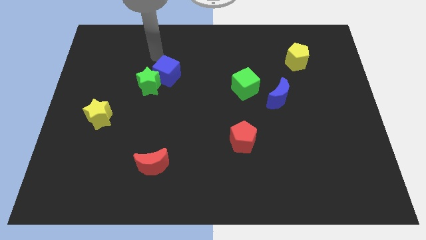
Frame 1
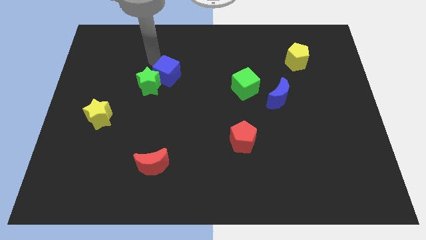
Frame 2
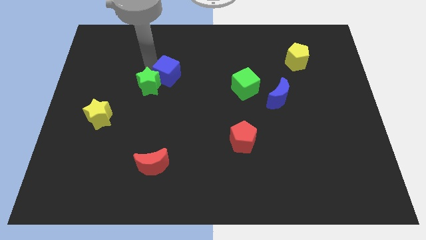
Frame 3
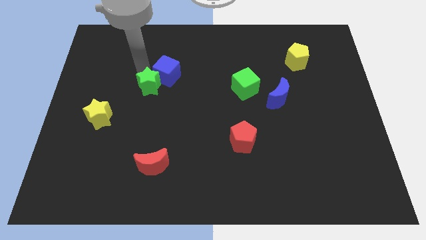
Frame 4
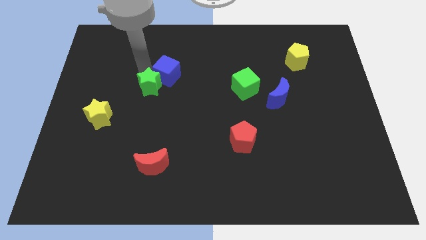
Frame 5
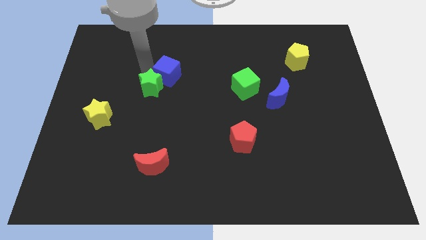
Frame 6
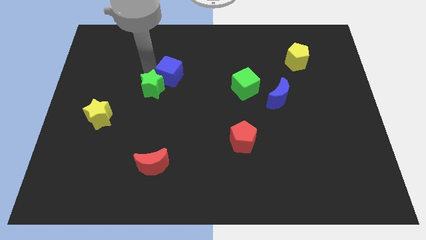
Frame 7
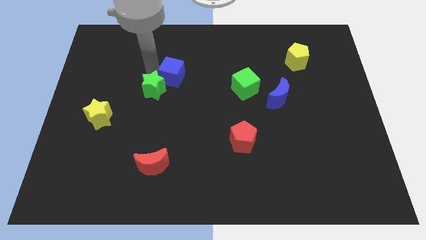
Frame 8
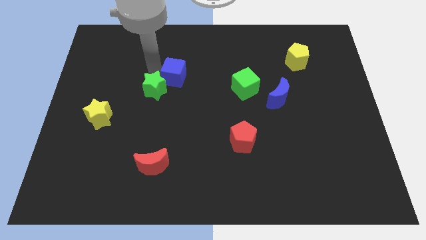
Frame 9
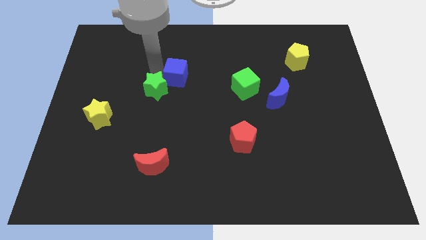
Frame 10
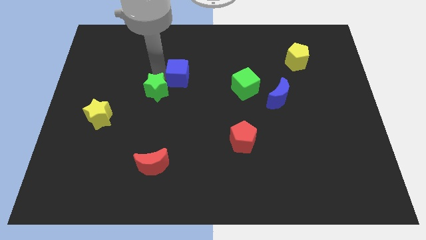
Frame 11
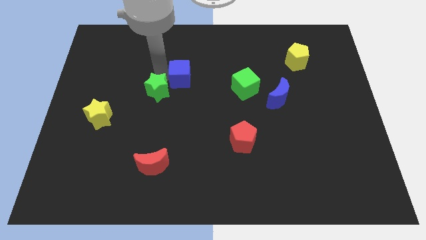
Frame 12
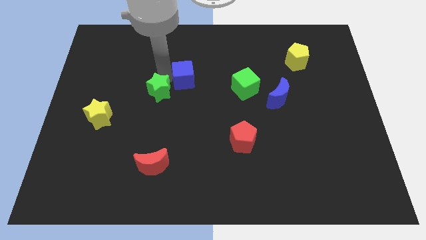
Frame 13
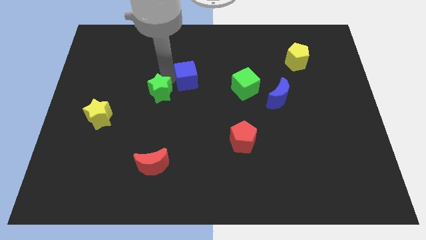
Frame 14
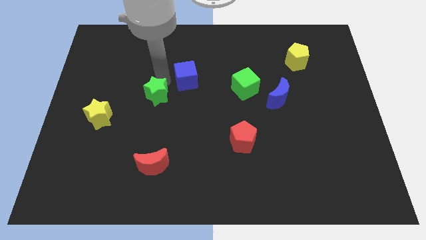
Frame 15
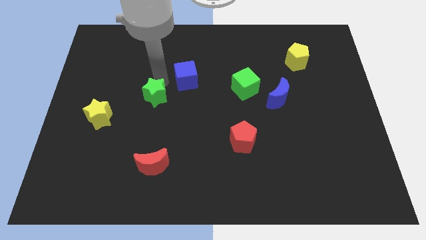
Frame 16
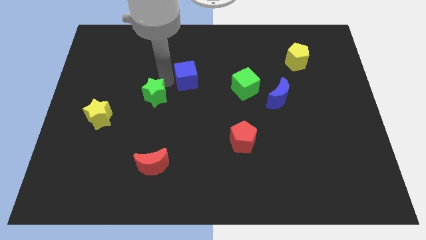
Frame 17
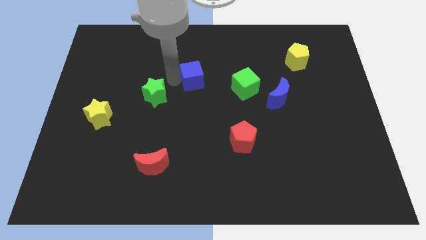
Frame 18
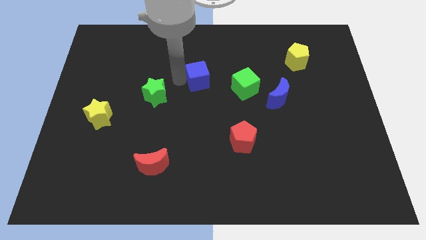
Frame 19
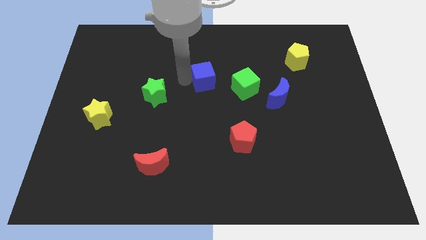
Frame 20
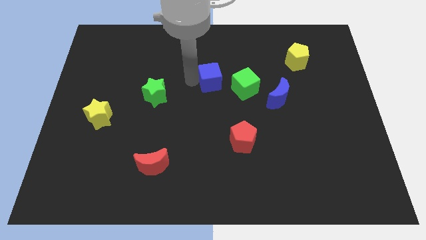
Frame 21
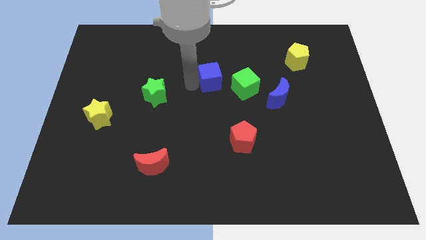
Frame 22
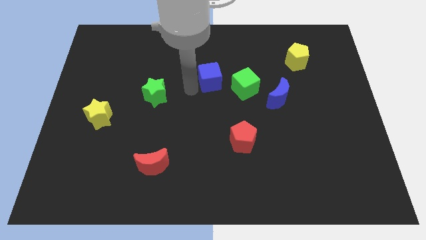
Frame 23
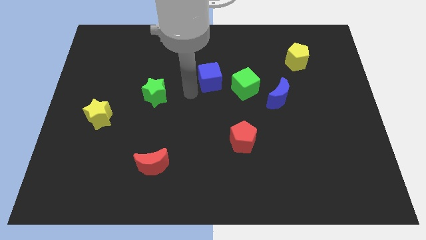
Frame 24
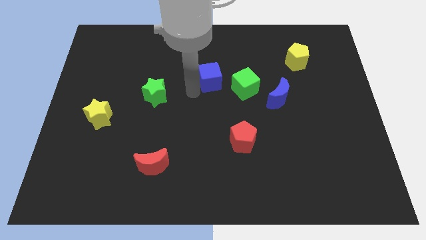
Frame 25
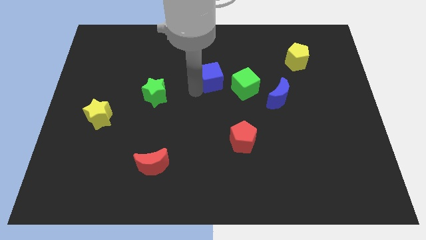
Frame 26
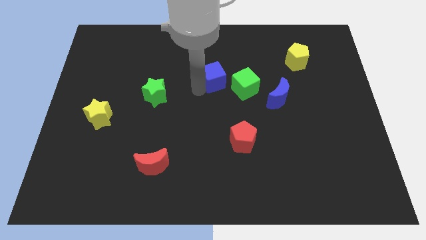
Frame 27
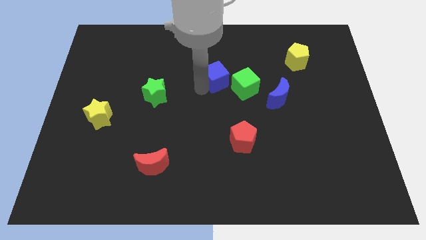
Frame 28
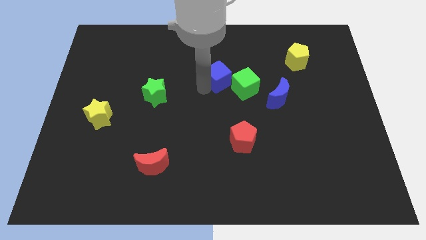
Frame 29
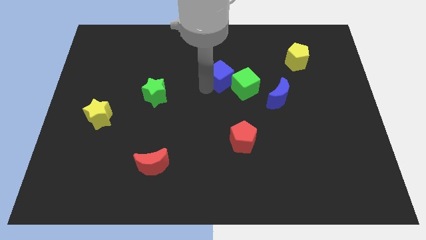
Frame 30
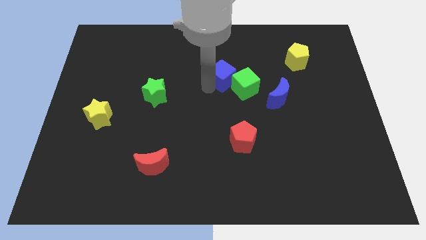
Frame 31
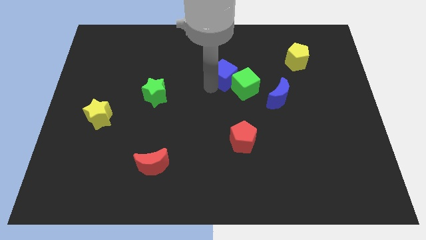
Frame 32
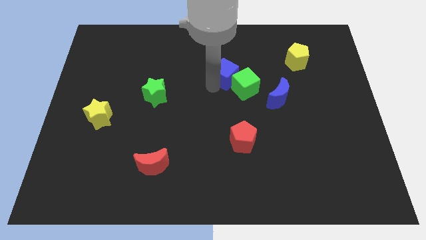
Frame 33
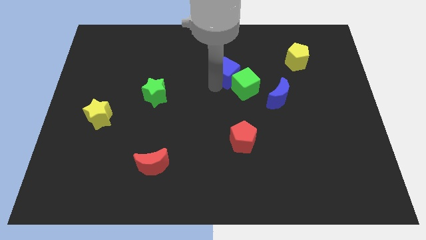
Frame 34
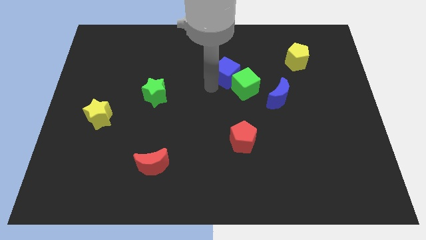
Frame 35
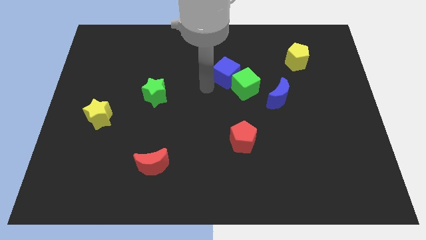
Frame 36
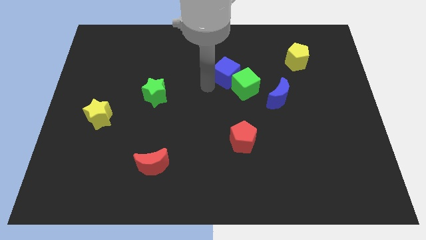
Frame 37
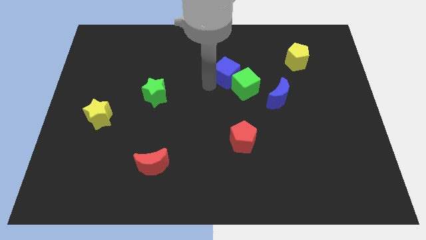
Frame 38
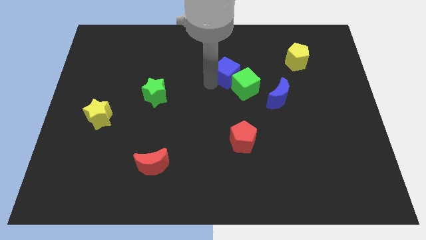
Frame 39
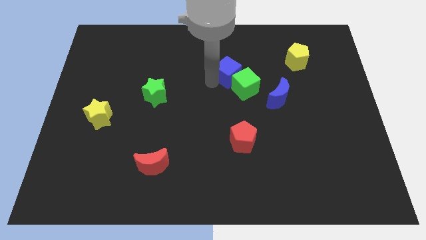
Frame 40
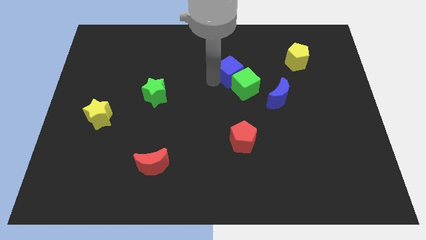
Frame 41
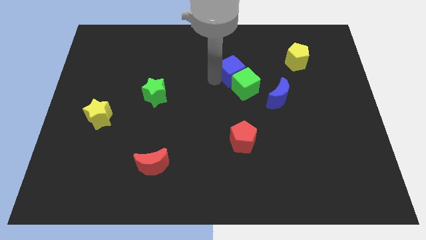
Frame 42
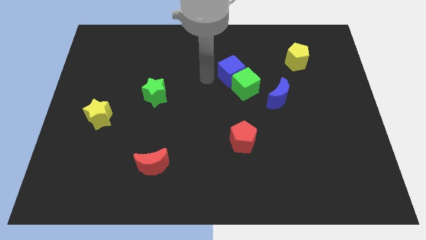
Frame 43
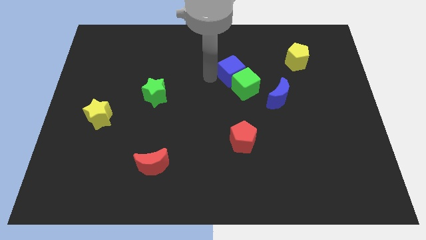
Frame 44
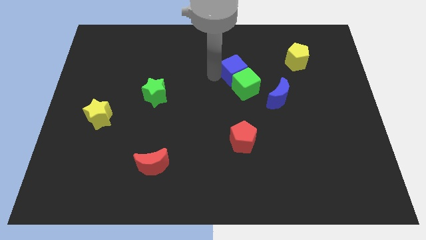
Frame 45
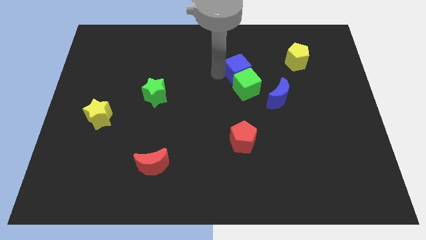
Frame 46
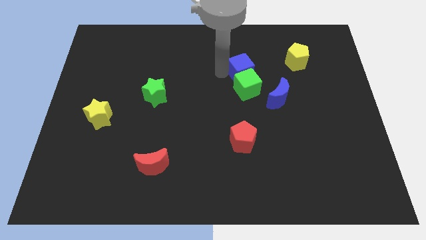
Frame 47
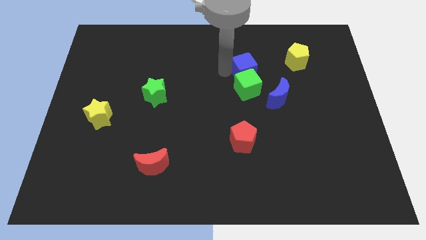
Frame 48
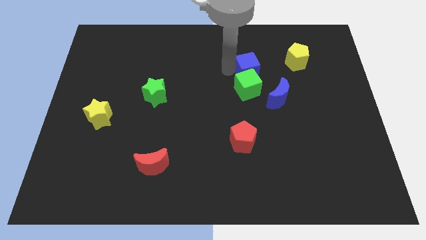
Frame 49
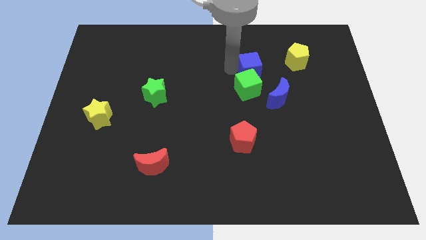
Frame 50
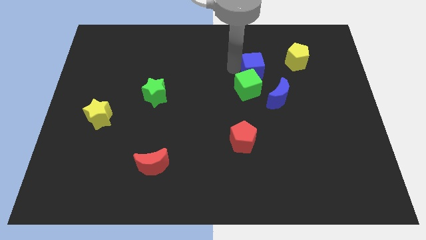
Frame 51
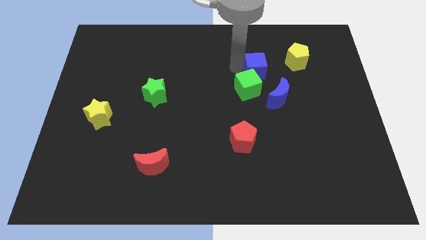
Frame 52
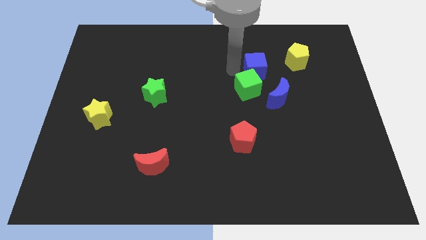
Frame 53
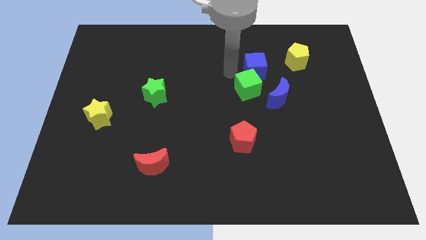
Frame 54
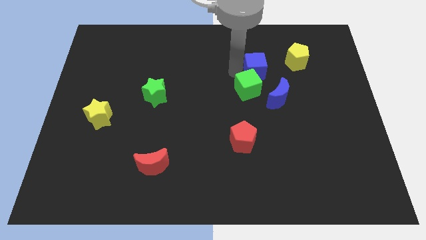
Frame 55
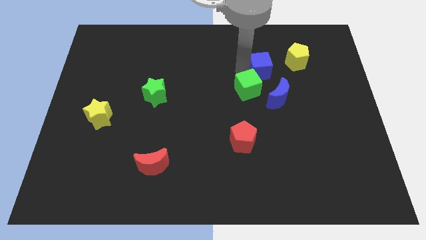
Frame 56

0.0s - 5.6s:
put the blue cube to the top of the blue moon

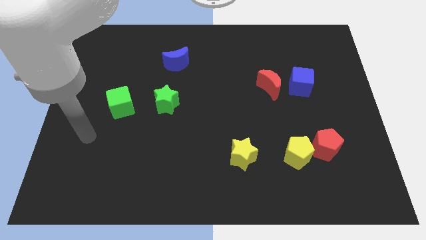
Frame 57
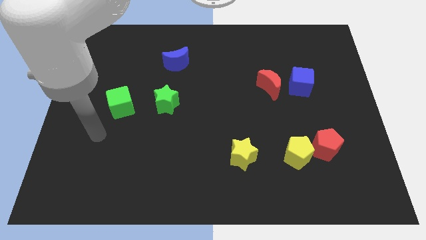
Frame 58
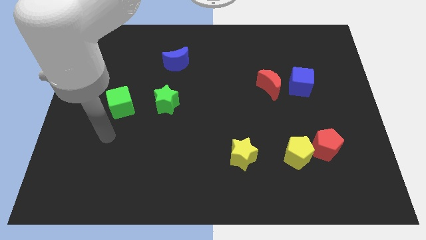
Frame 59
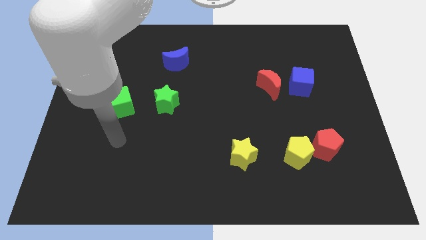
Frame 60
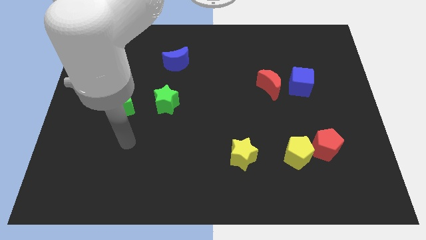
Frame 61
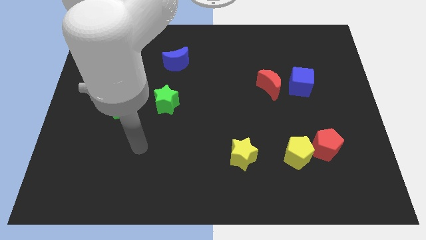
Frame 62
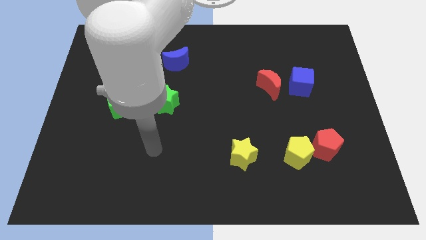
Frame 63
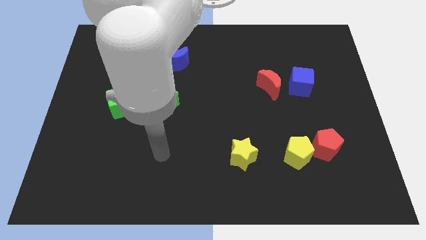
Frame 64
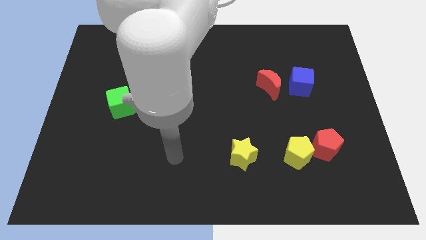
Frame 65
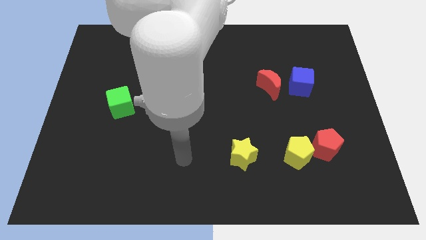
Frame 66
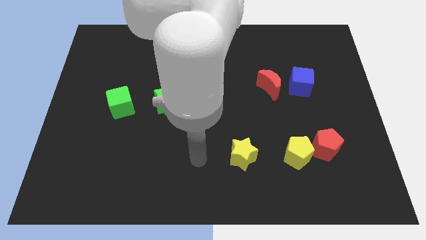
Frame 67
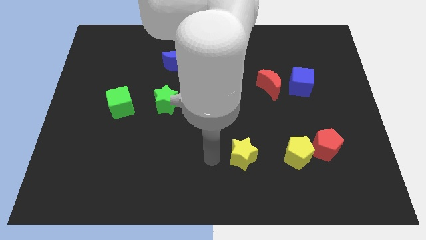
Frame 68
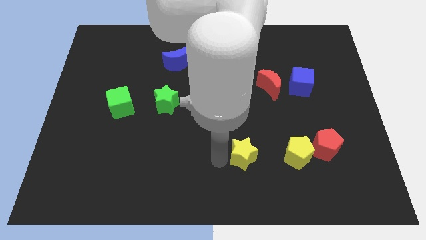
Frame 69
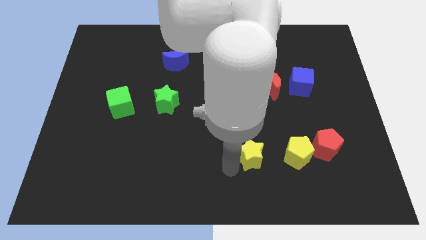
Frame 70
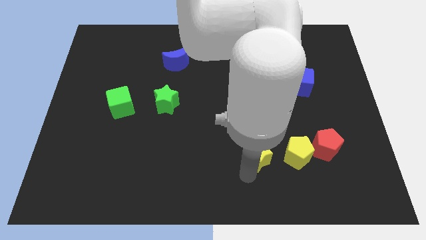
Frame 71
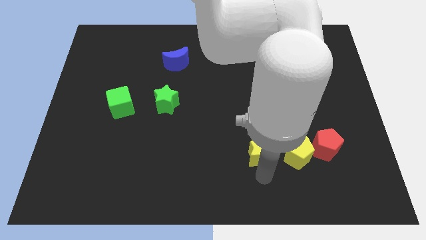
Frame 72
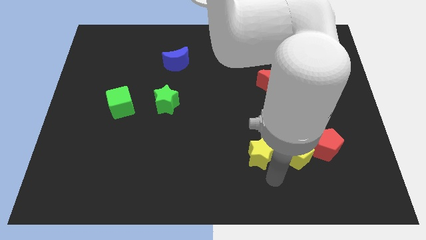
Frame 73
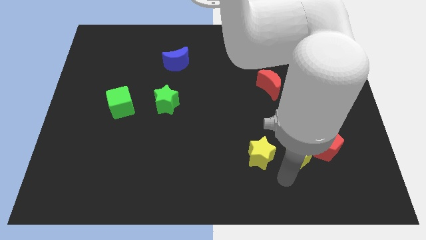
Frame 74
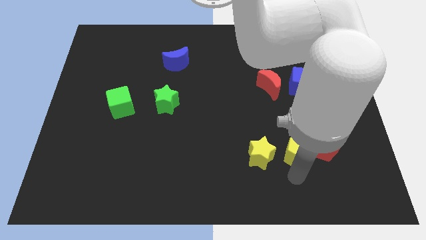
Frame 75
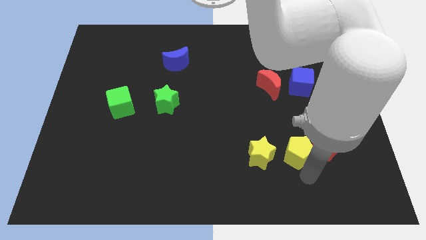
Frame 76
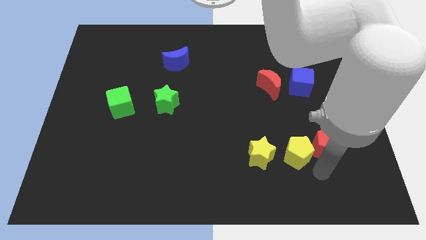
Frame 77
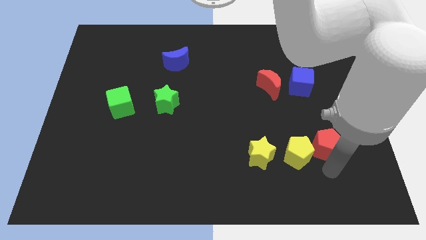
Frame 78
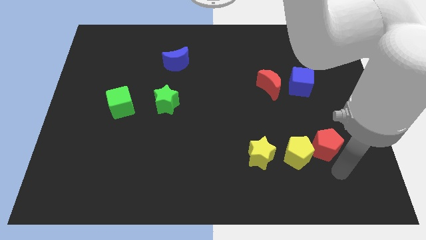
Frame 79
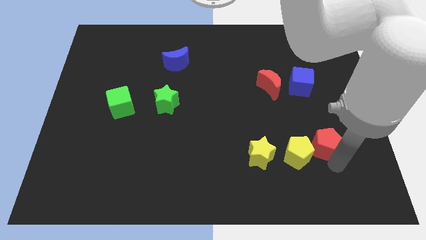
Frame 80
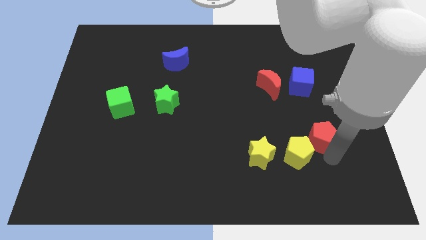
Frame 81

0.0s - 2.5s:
put the red pentagon to the bottom of the blue cube
